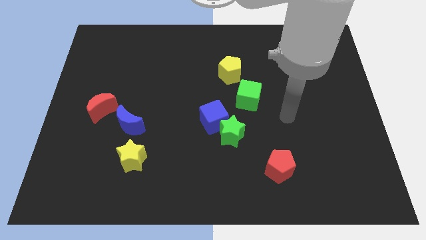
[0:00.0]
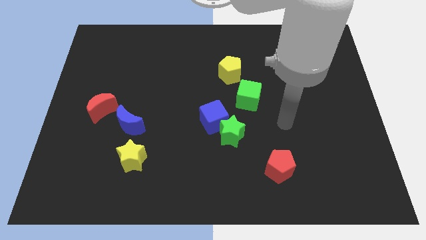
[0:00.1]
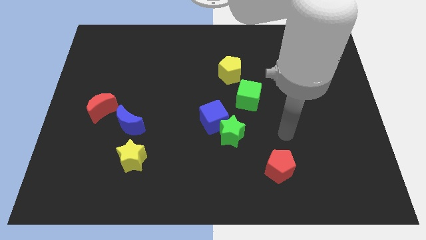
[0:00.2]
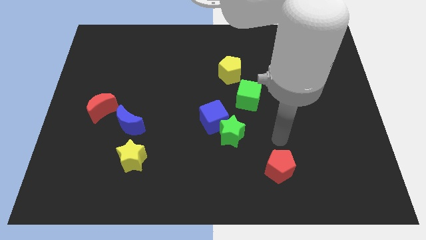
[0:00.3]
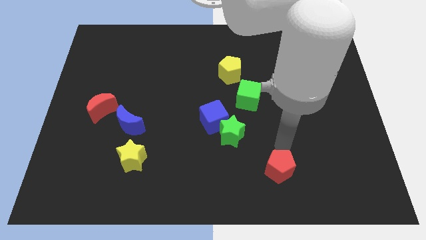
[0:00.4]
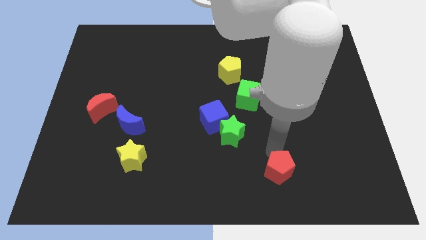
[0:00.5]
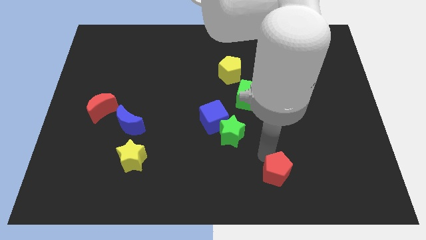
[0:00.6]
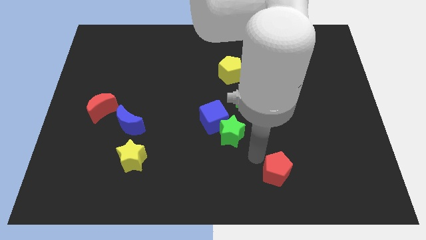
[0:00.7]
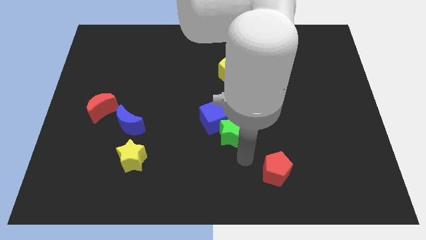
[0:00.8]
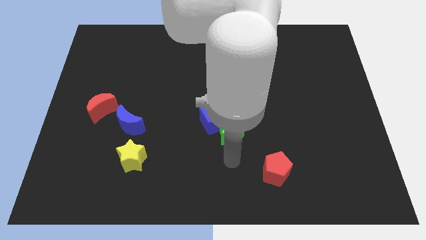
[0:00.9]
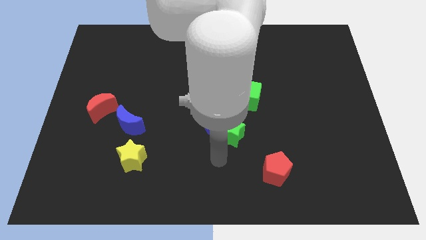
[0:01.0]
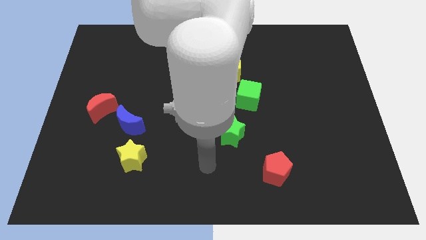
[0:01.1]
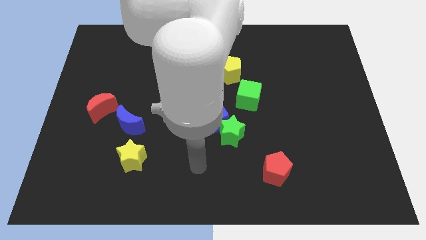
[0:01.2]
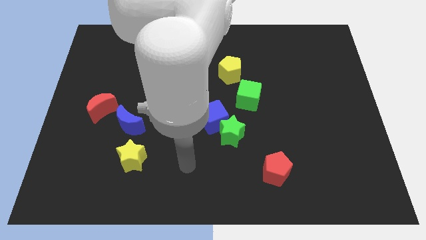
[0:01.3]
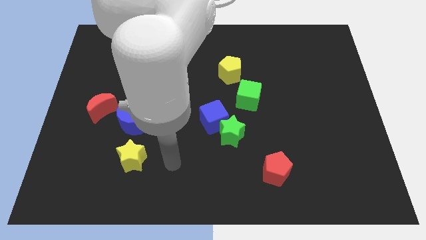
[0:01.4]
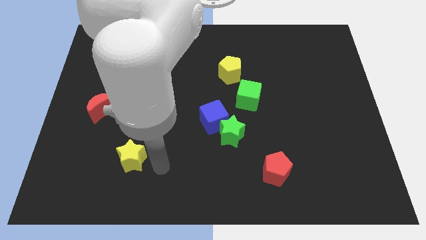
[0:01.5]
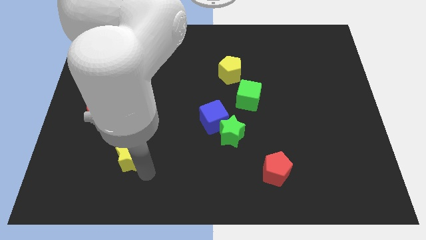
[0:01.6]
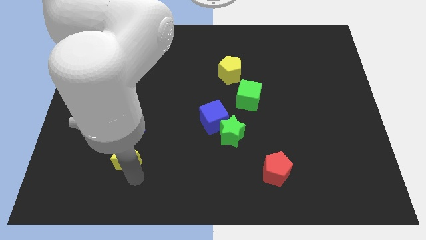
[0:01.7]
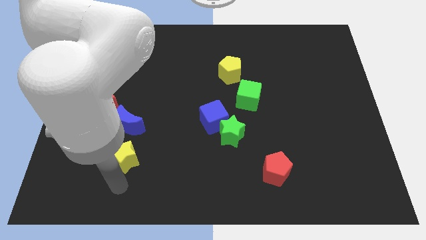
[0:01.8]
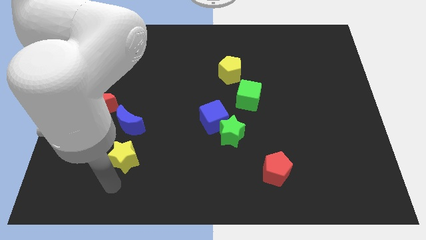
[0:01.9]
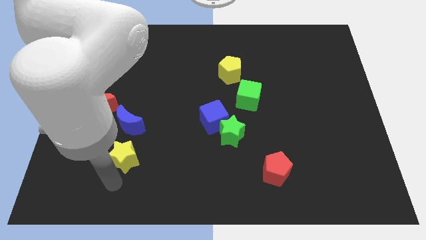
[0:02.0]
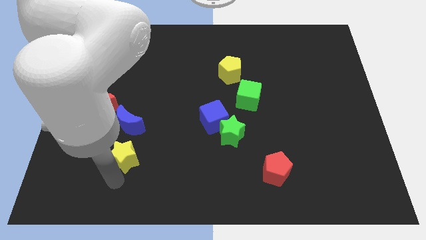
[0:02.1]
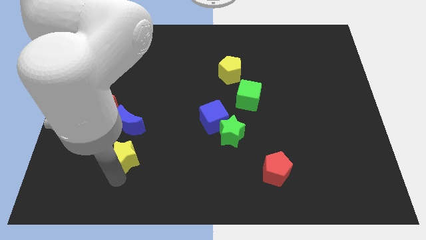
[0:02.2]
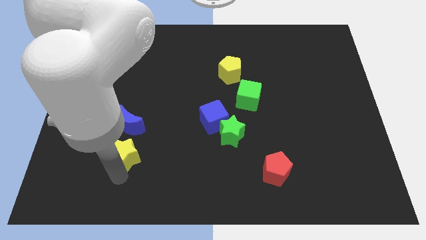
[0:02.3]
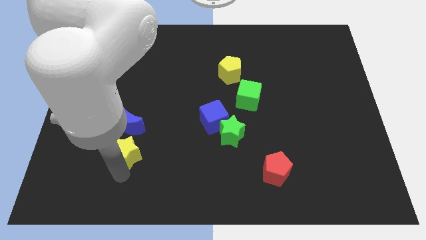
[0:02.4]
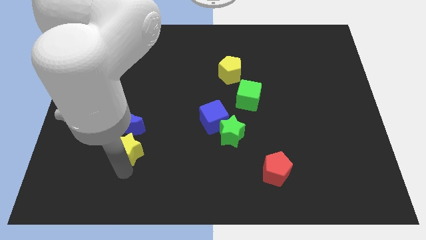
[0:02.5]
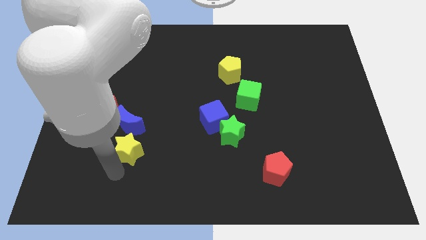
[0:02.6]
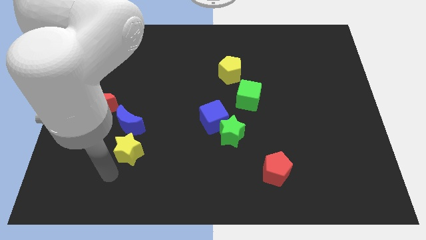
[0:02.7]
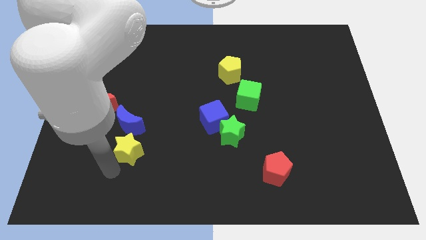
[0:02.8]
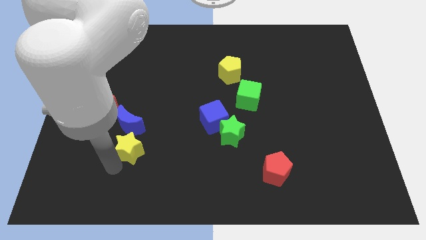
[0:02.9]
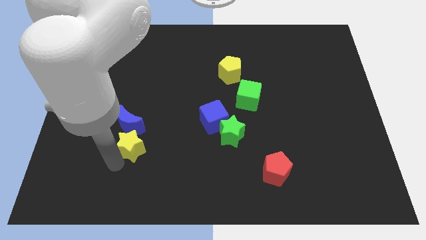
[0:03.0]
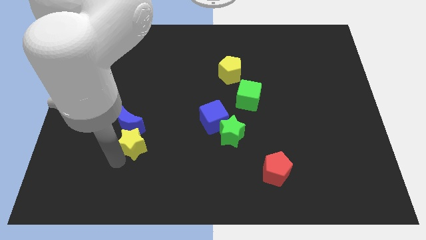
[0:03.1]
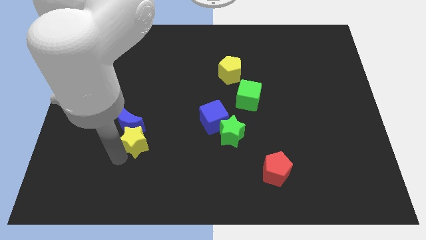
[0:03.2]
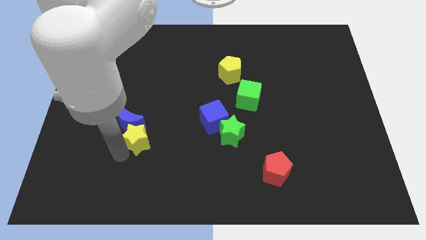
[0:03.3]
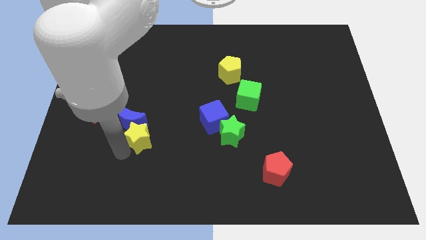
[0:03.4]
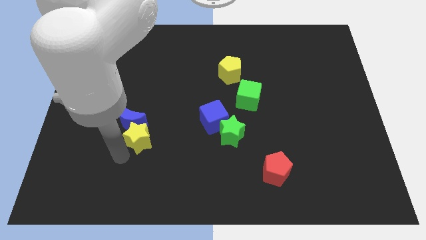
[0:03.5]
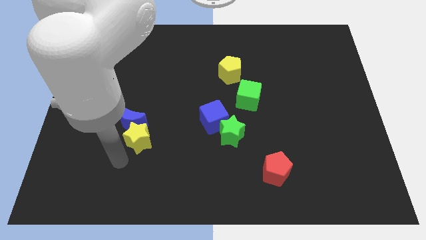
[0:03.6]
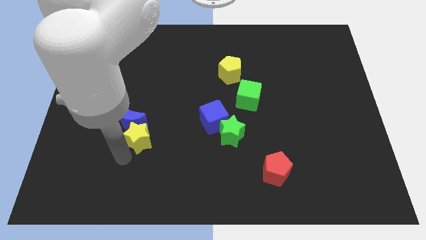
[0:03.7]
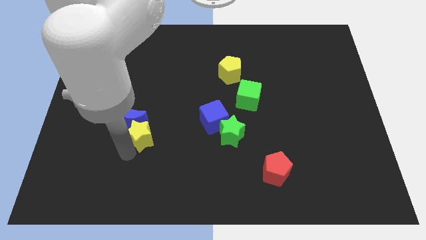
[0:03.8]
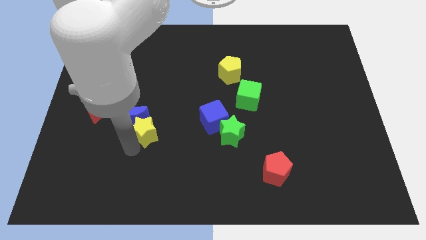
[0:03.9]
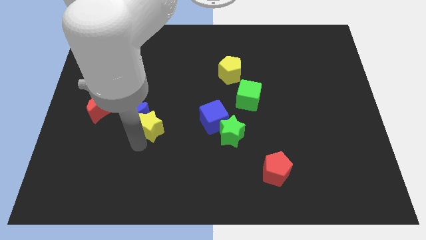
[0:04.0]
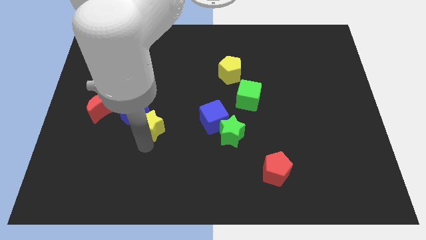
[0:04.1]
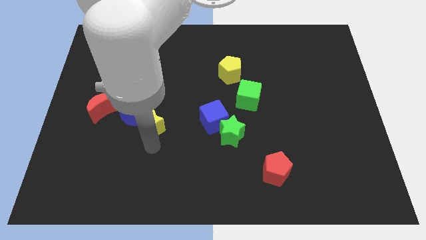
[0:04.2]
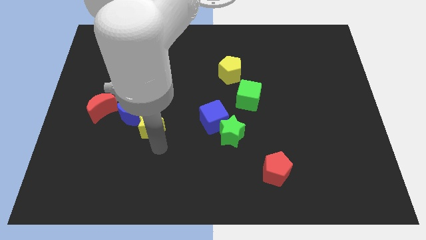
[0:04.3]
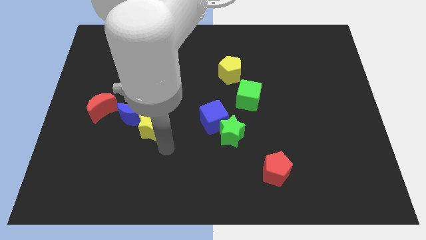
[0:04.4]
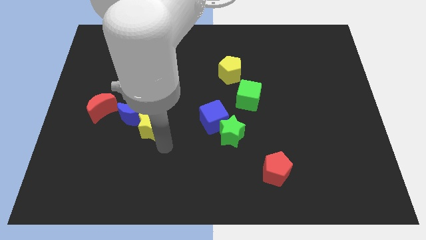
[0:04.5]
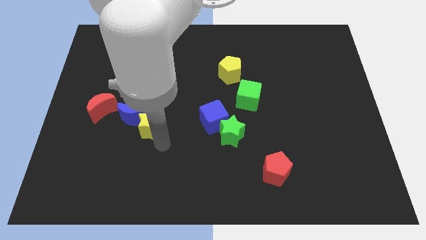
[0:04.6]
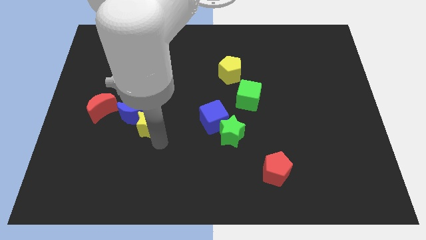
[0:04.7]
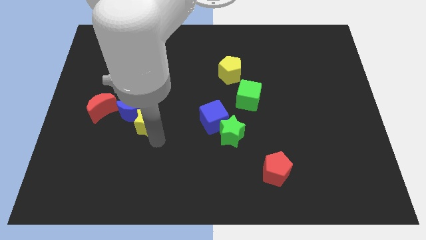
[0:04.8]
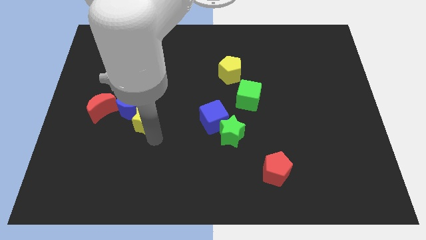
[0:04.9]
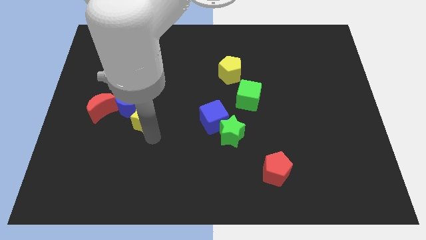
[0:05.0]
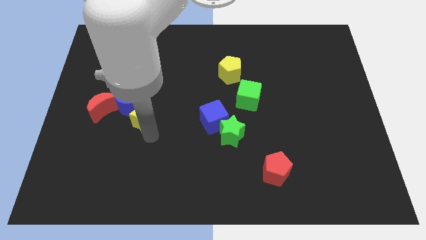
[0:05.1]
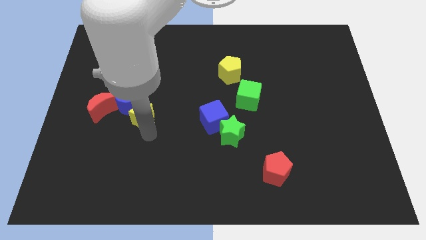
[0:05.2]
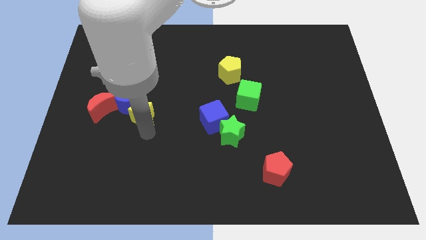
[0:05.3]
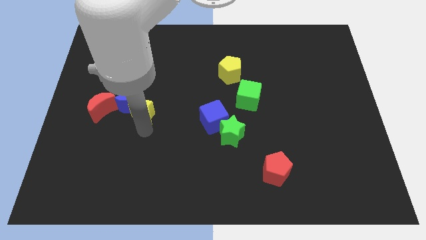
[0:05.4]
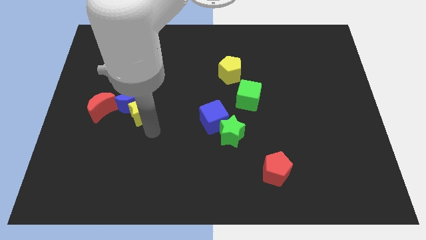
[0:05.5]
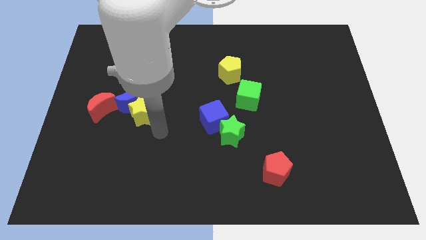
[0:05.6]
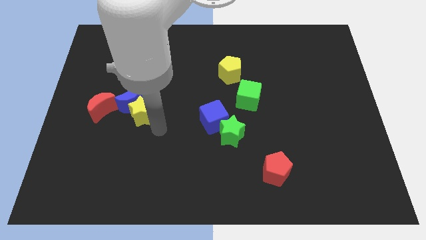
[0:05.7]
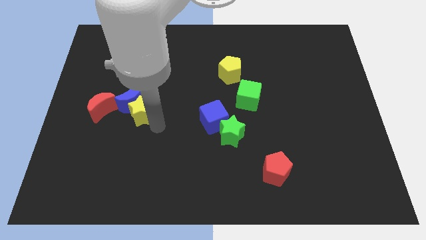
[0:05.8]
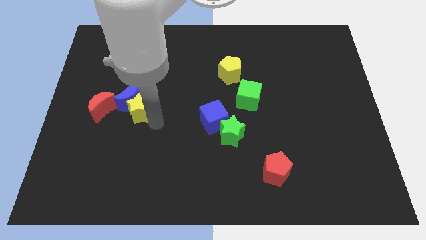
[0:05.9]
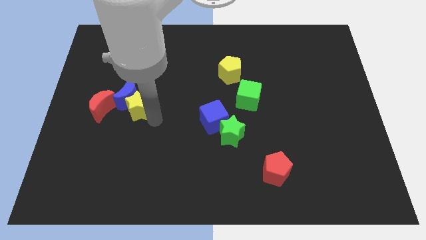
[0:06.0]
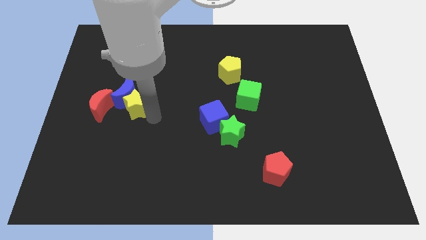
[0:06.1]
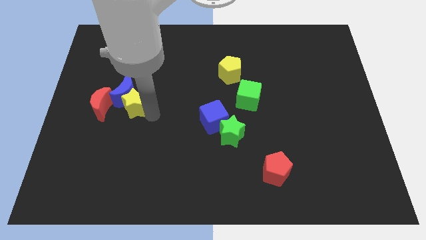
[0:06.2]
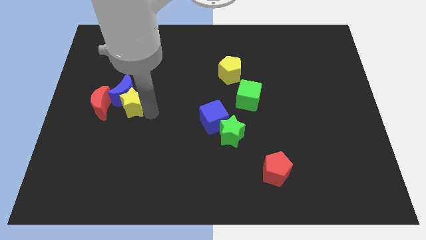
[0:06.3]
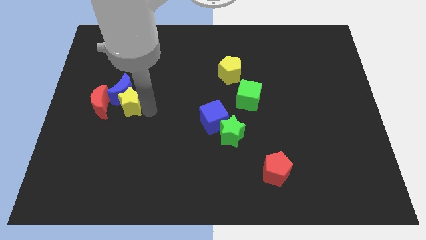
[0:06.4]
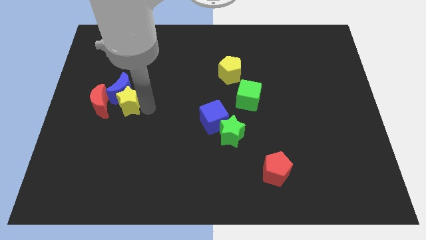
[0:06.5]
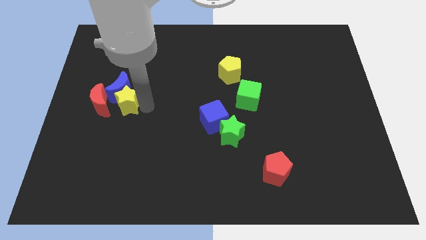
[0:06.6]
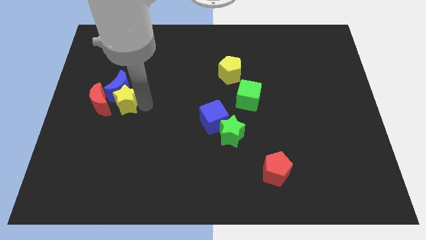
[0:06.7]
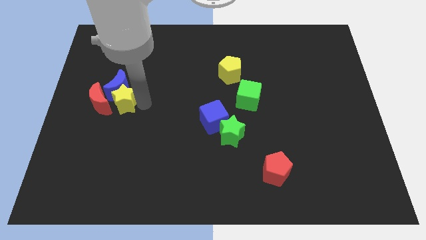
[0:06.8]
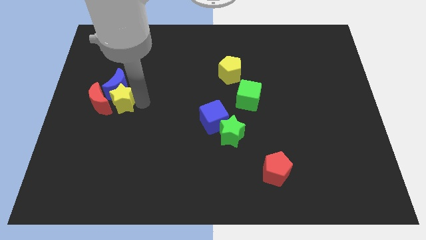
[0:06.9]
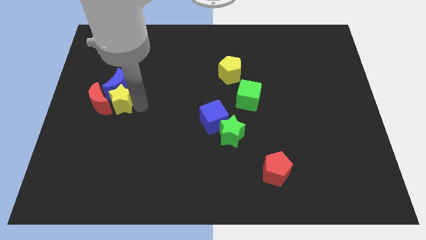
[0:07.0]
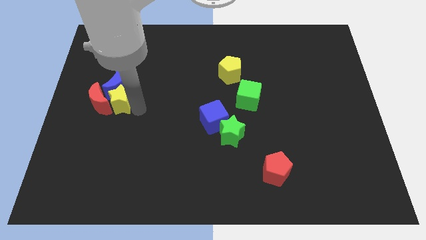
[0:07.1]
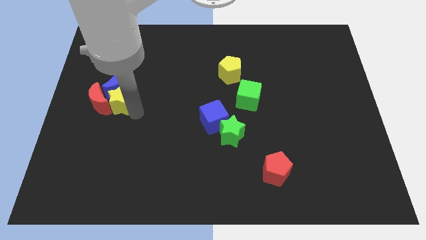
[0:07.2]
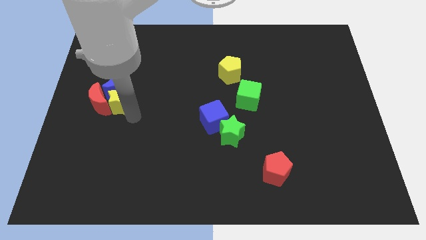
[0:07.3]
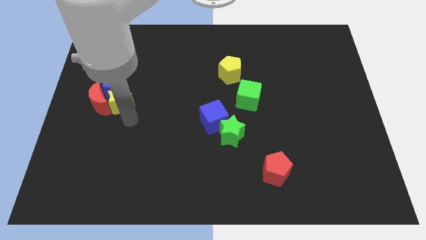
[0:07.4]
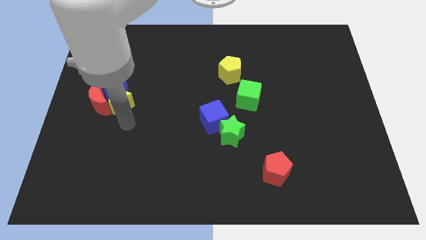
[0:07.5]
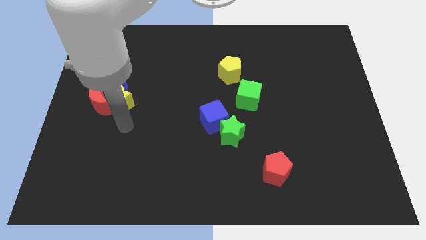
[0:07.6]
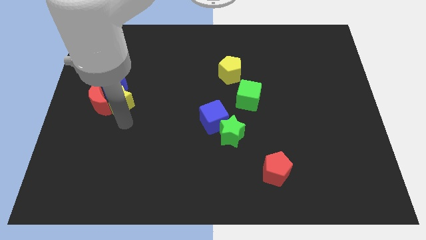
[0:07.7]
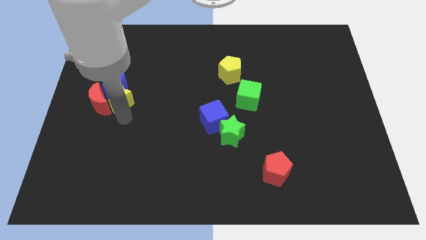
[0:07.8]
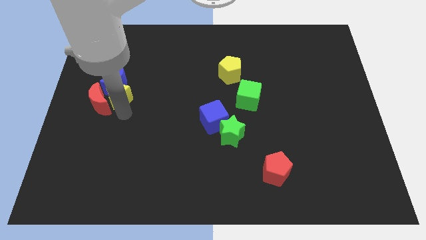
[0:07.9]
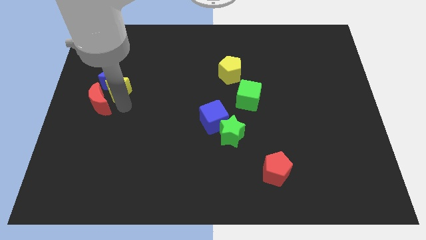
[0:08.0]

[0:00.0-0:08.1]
move the yellow star above the red moon
